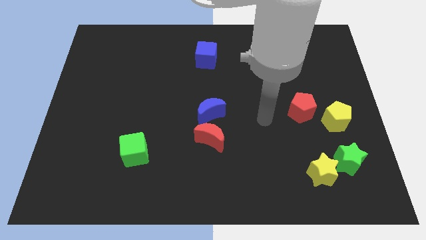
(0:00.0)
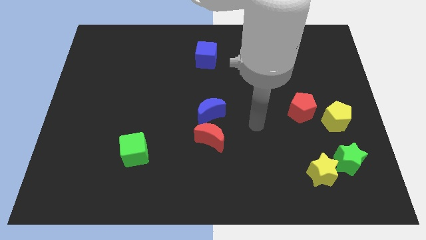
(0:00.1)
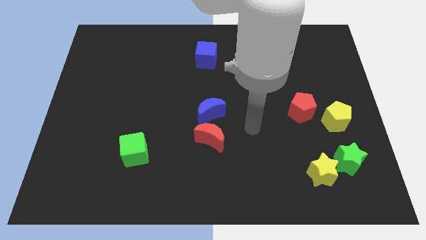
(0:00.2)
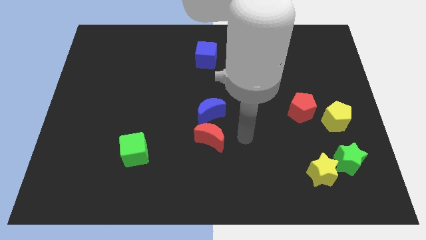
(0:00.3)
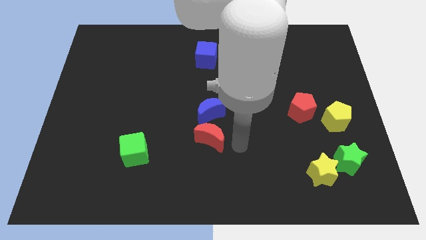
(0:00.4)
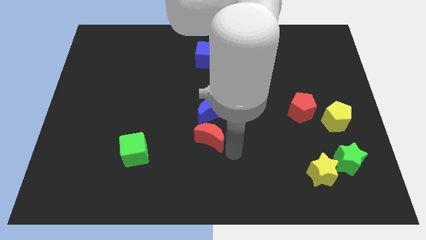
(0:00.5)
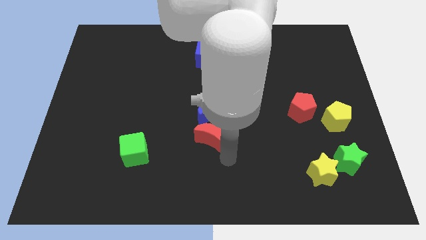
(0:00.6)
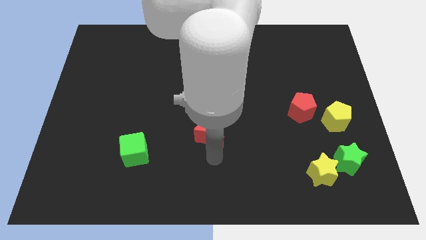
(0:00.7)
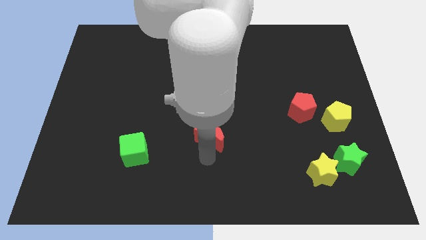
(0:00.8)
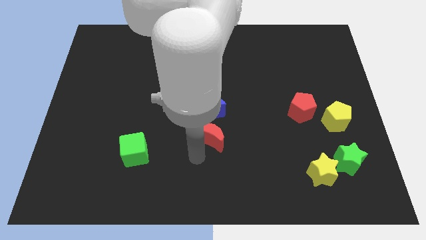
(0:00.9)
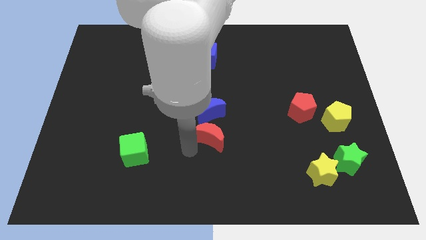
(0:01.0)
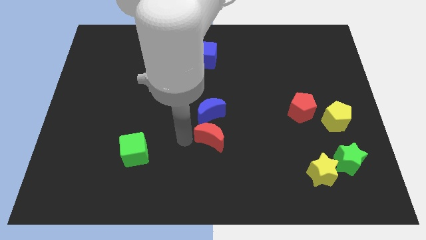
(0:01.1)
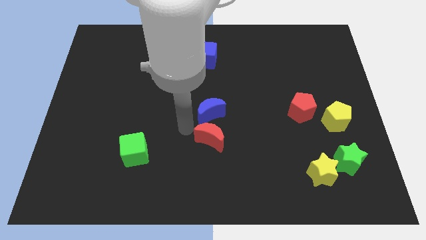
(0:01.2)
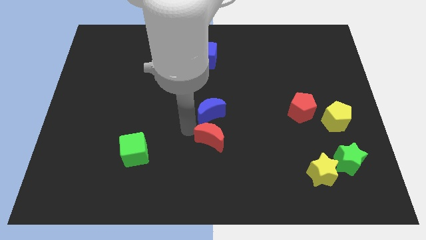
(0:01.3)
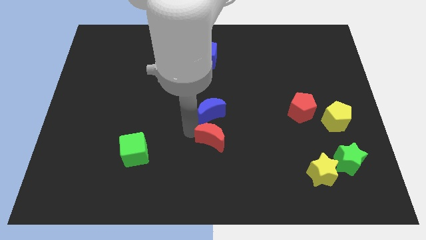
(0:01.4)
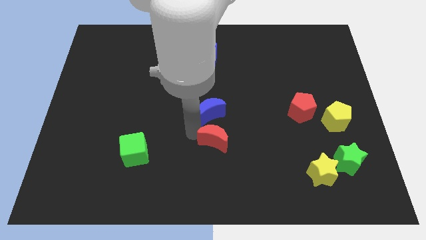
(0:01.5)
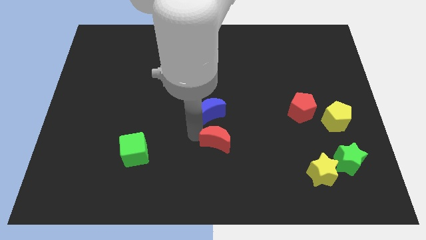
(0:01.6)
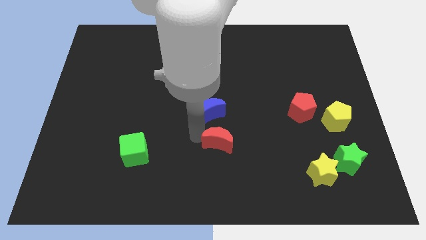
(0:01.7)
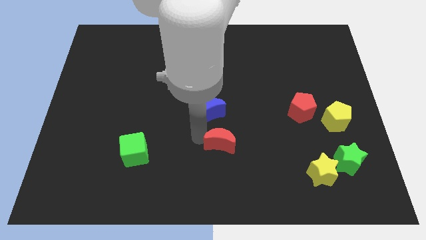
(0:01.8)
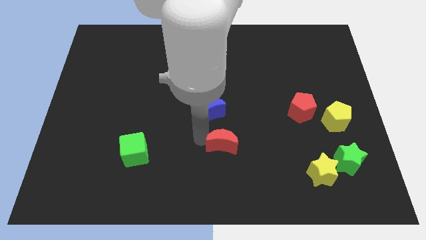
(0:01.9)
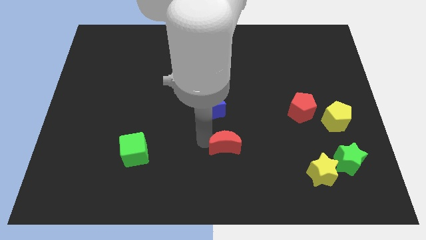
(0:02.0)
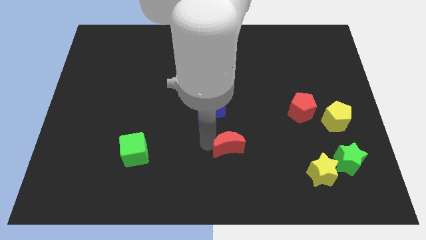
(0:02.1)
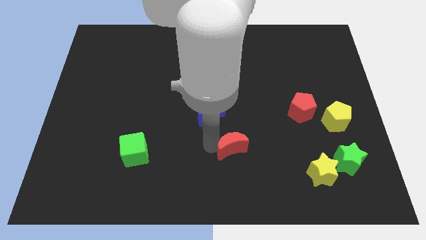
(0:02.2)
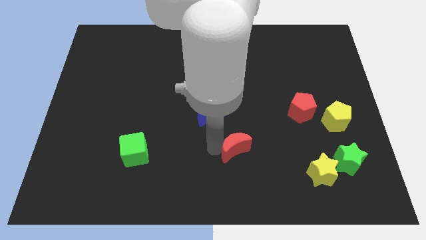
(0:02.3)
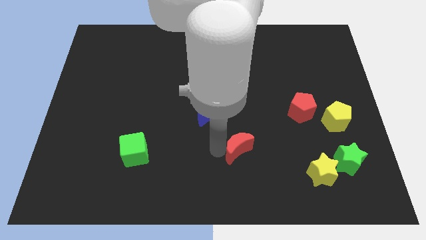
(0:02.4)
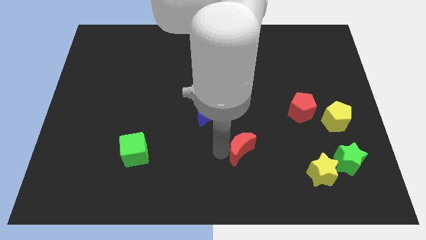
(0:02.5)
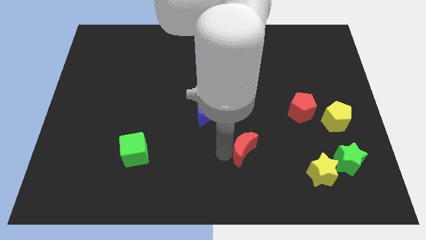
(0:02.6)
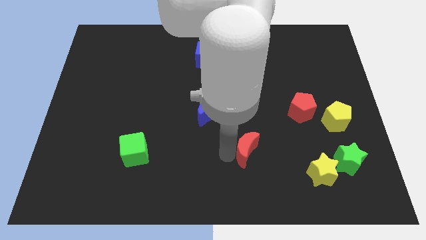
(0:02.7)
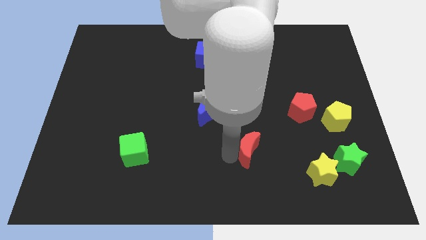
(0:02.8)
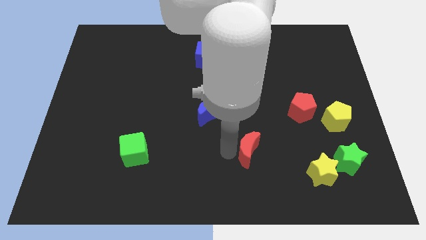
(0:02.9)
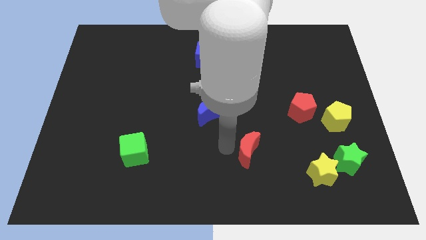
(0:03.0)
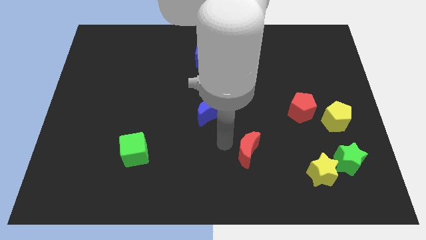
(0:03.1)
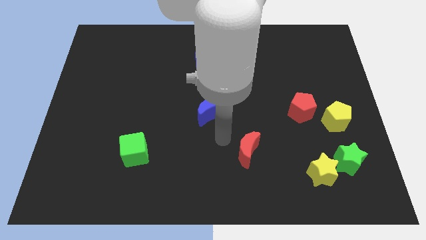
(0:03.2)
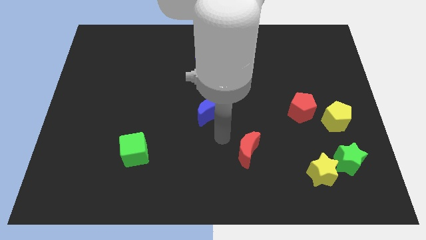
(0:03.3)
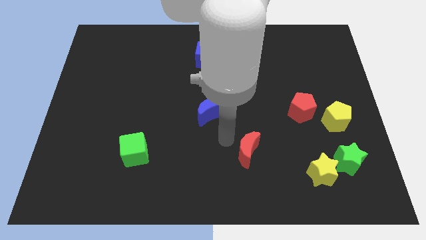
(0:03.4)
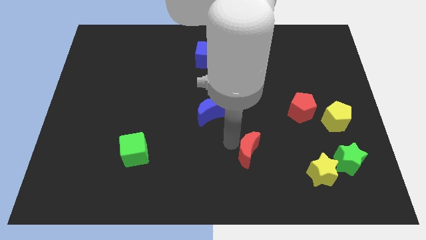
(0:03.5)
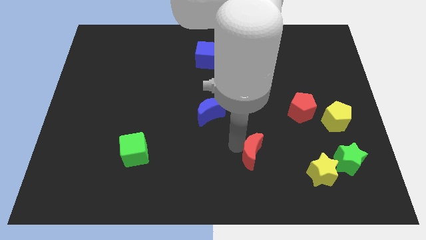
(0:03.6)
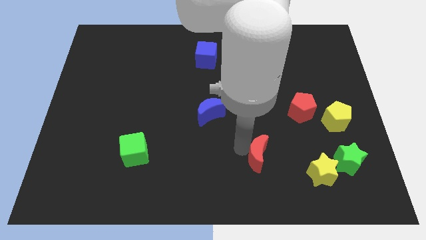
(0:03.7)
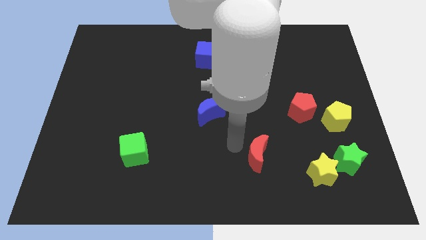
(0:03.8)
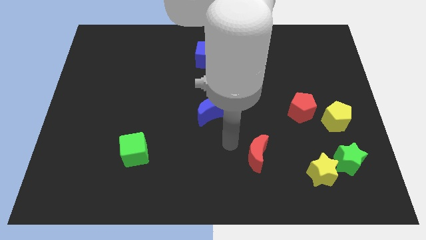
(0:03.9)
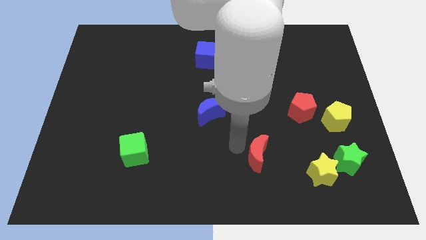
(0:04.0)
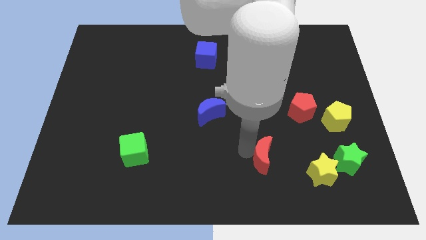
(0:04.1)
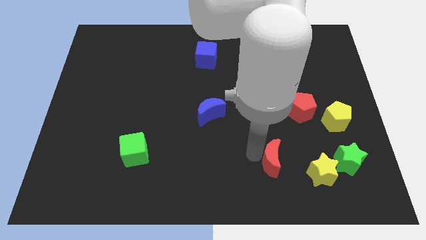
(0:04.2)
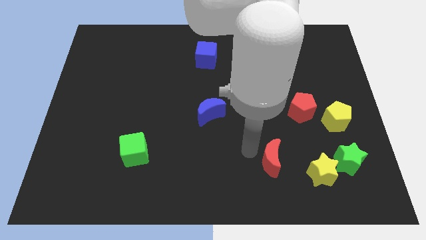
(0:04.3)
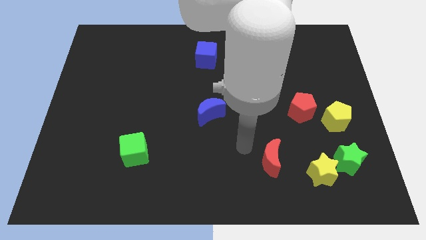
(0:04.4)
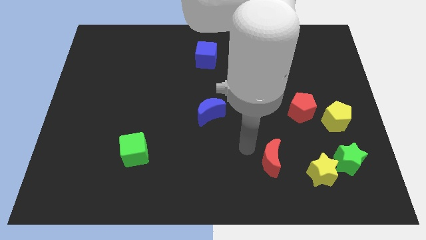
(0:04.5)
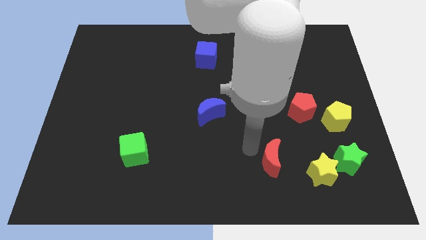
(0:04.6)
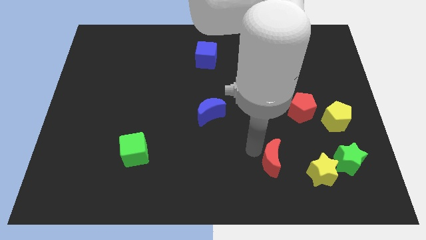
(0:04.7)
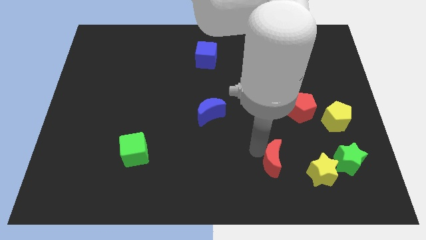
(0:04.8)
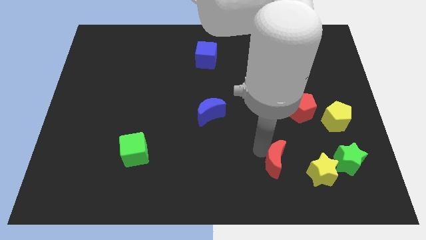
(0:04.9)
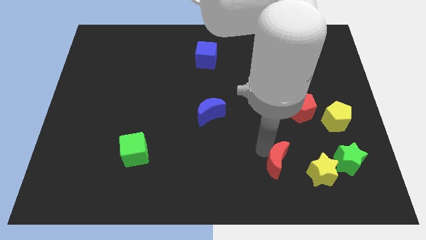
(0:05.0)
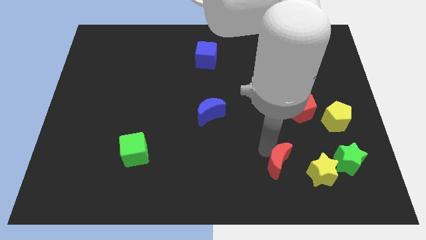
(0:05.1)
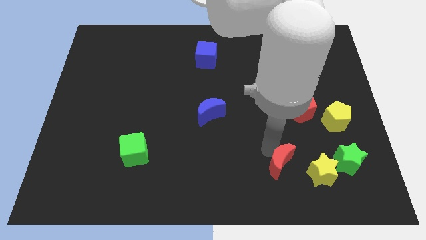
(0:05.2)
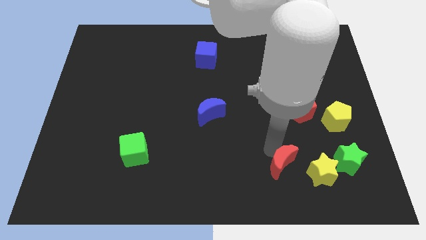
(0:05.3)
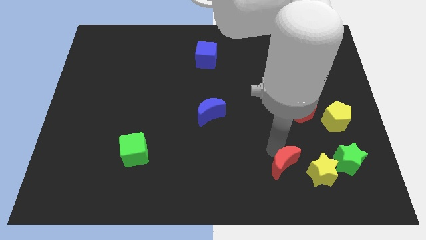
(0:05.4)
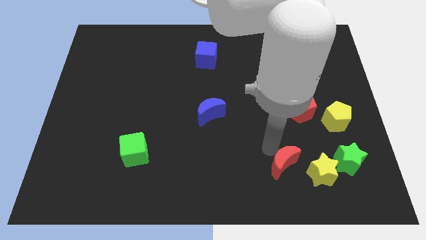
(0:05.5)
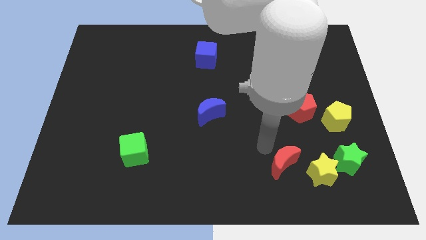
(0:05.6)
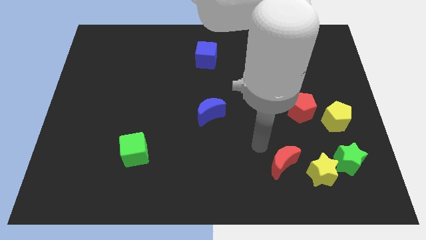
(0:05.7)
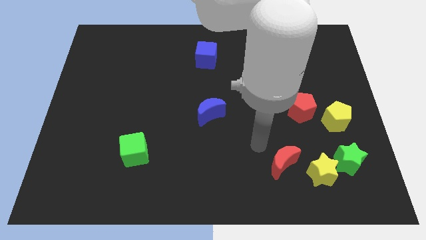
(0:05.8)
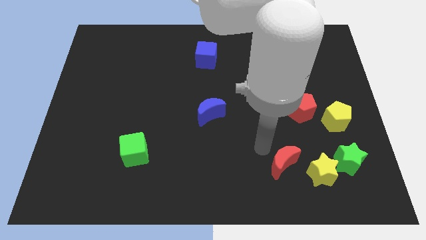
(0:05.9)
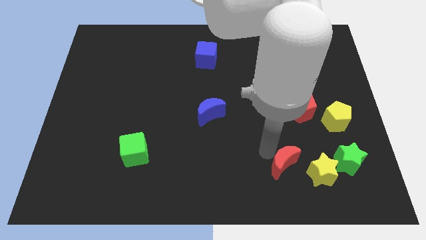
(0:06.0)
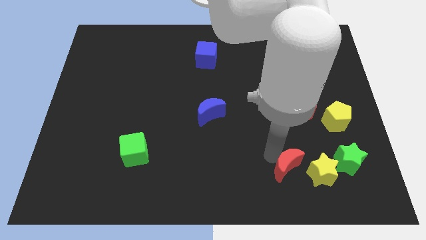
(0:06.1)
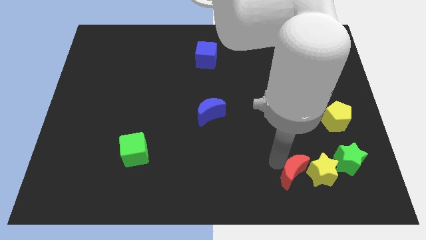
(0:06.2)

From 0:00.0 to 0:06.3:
put the red moon to the yellow star

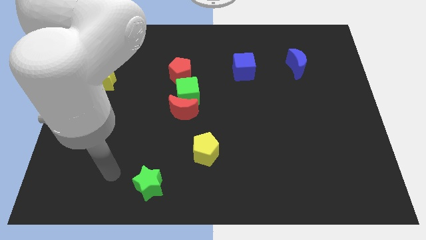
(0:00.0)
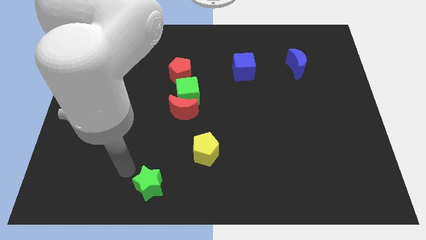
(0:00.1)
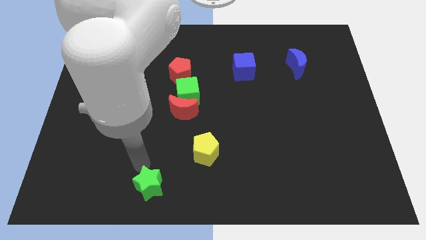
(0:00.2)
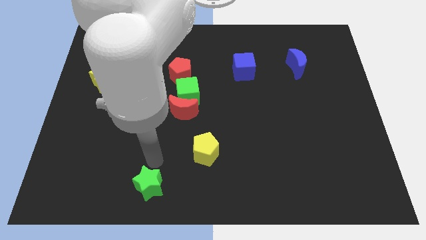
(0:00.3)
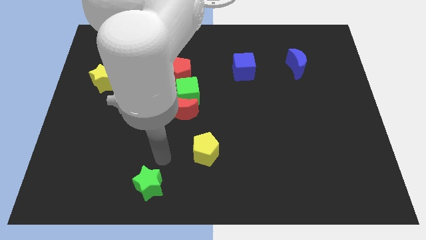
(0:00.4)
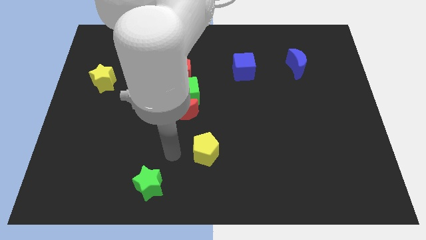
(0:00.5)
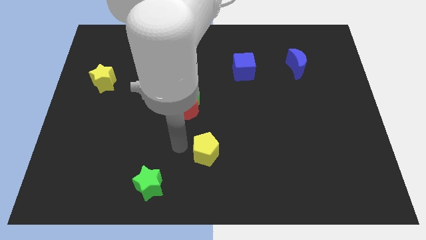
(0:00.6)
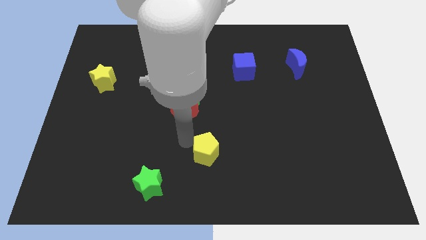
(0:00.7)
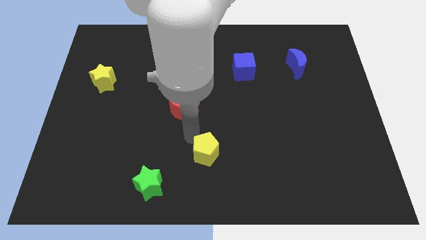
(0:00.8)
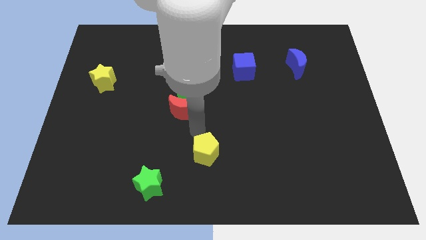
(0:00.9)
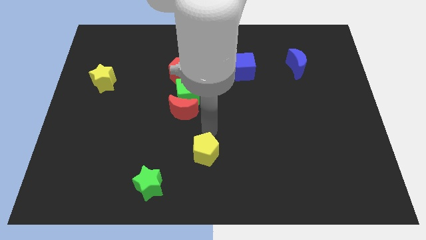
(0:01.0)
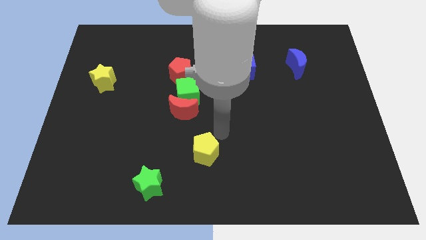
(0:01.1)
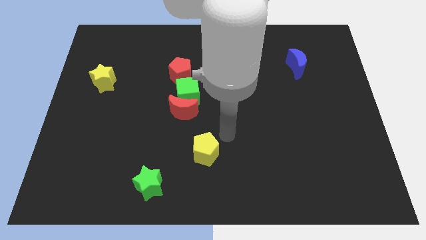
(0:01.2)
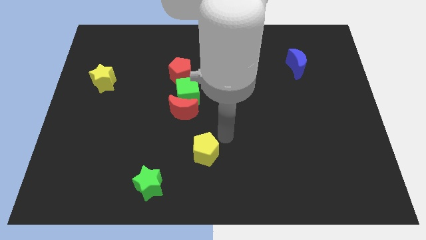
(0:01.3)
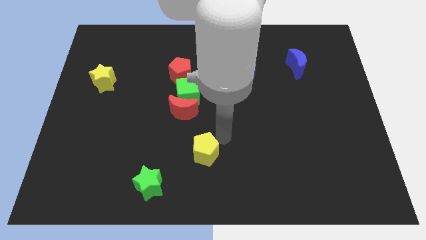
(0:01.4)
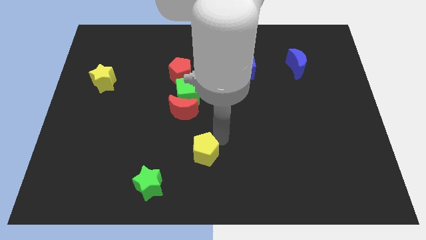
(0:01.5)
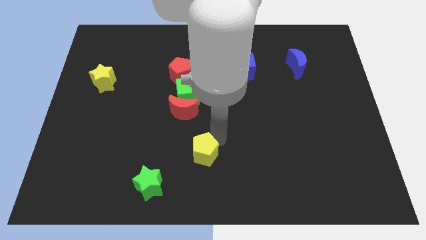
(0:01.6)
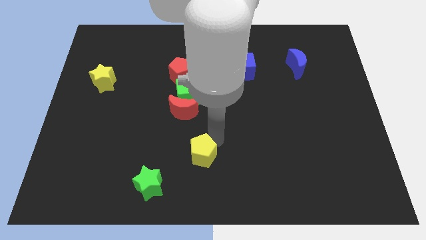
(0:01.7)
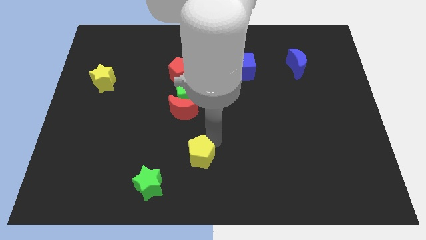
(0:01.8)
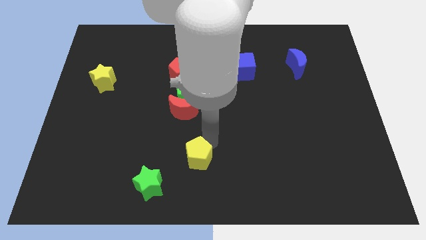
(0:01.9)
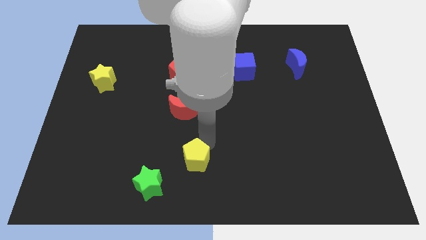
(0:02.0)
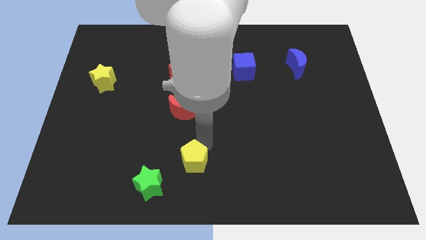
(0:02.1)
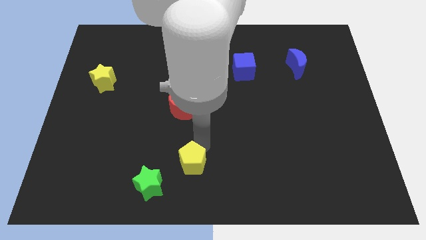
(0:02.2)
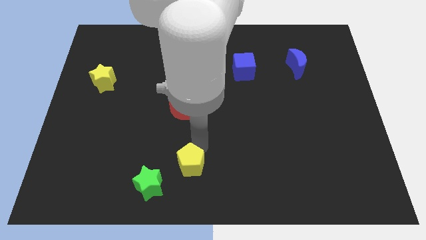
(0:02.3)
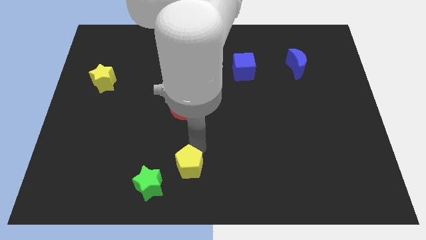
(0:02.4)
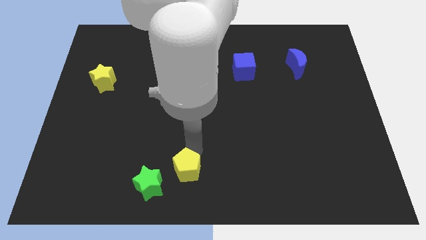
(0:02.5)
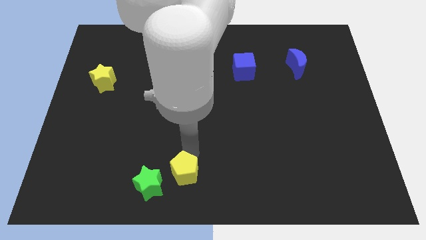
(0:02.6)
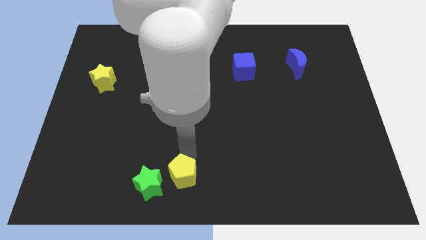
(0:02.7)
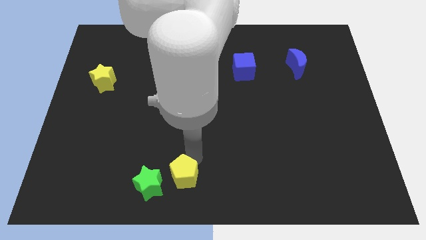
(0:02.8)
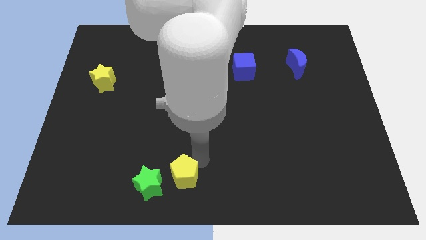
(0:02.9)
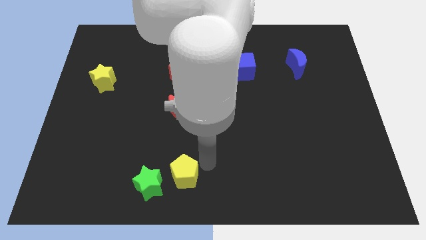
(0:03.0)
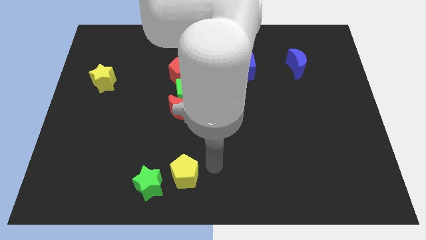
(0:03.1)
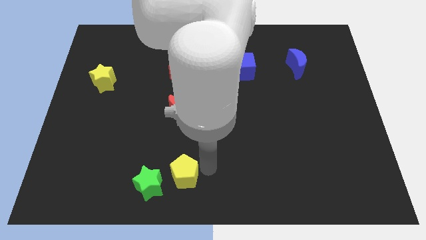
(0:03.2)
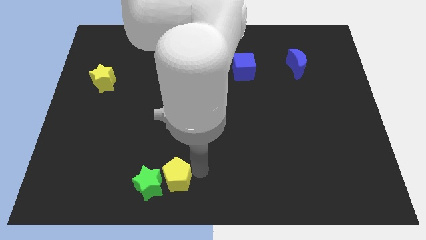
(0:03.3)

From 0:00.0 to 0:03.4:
move the yellow pentagon close to the green star
